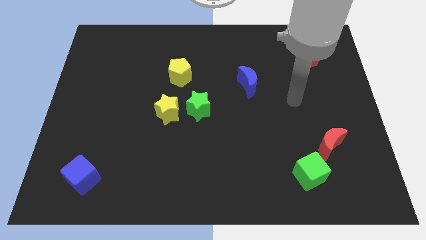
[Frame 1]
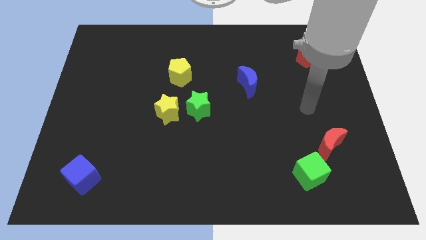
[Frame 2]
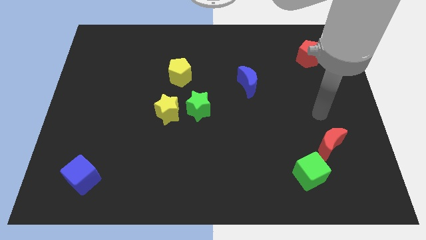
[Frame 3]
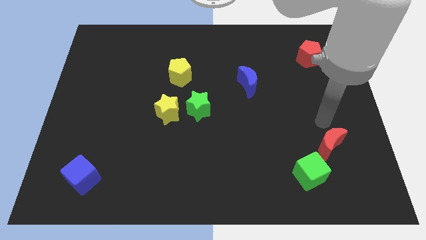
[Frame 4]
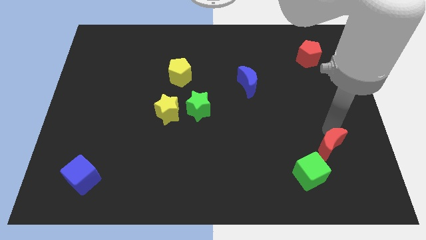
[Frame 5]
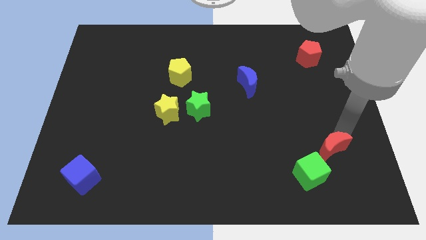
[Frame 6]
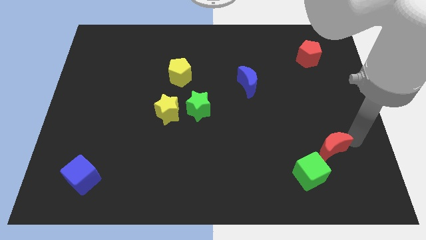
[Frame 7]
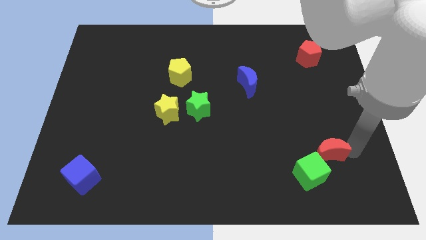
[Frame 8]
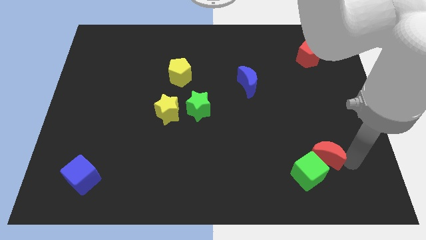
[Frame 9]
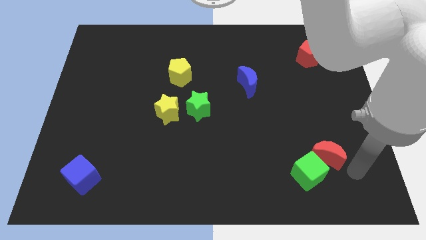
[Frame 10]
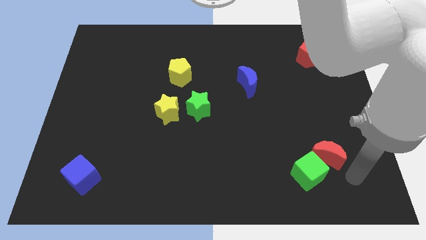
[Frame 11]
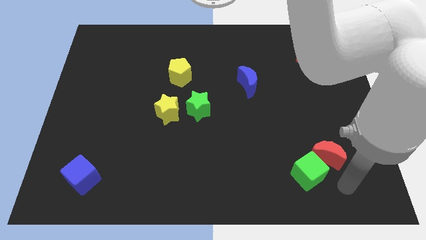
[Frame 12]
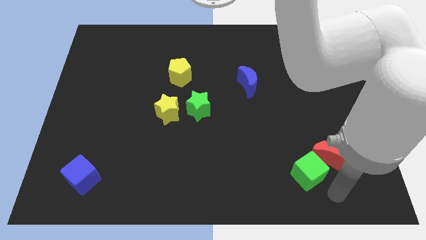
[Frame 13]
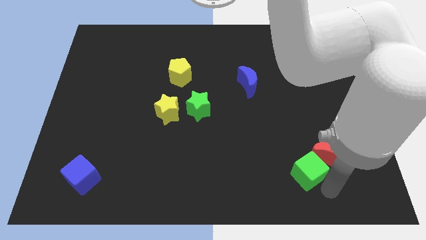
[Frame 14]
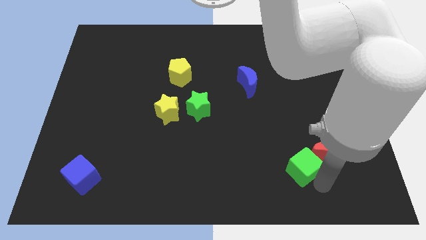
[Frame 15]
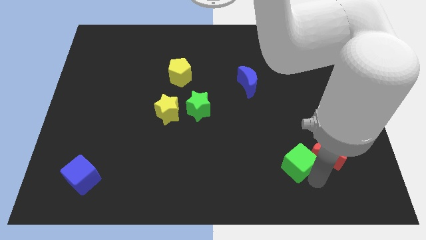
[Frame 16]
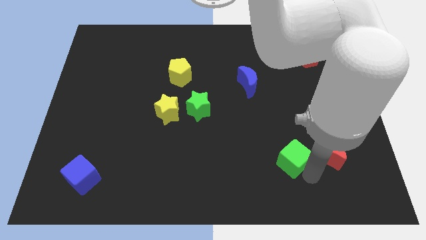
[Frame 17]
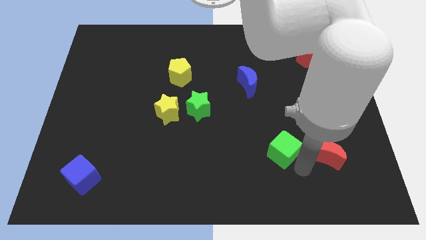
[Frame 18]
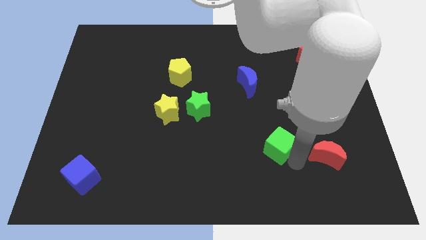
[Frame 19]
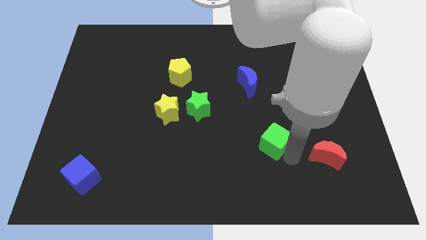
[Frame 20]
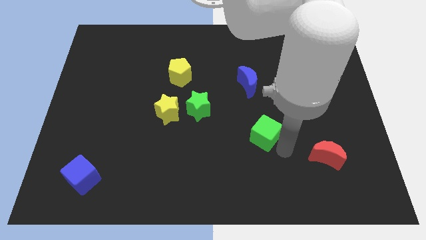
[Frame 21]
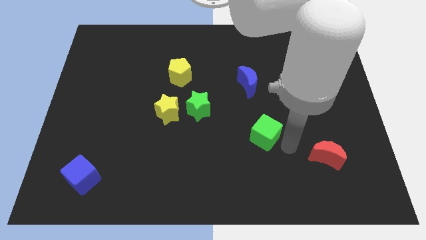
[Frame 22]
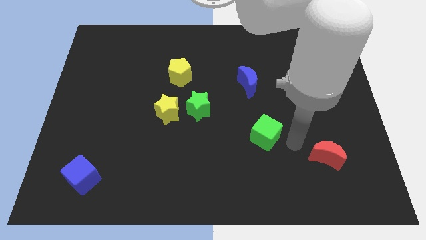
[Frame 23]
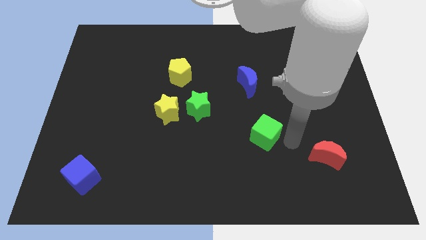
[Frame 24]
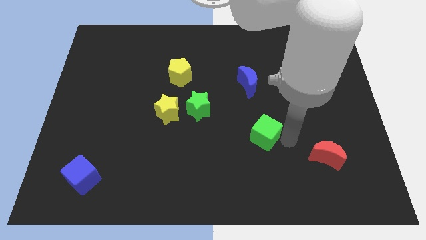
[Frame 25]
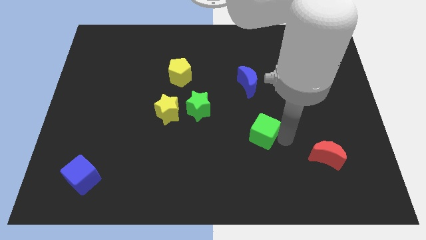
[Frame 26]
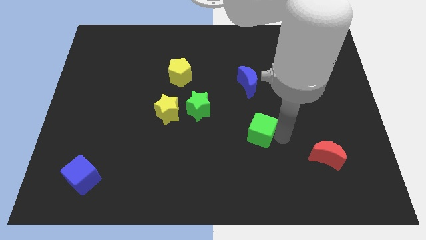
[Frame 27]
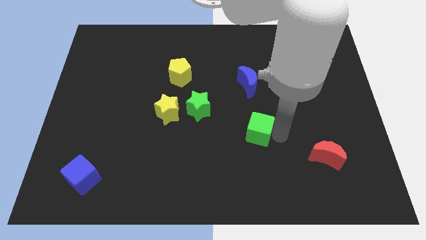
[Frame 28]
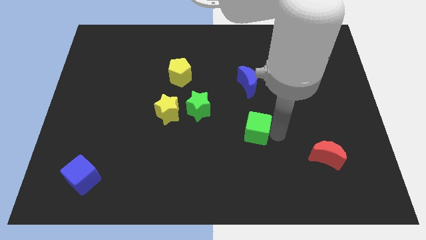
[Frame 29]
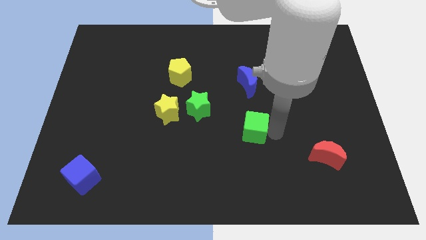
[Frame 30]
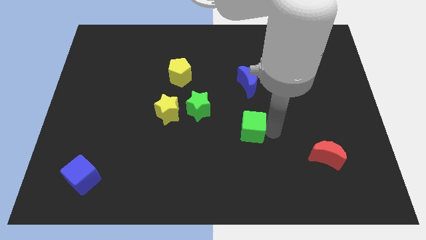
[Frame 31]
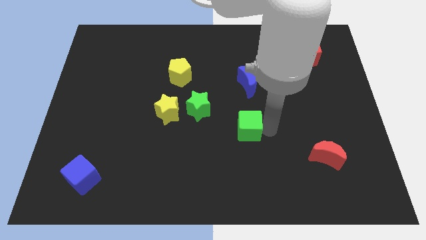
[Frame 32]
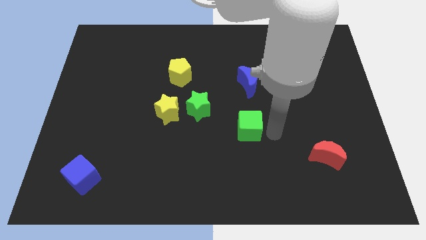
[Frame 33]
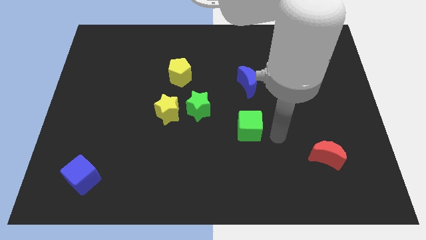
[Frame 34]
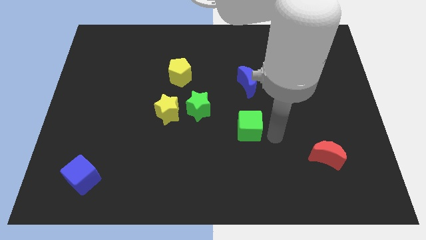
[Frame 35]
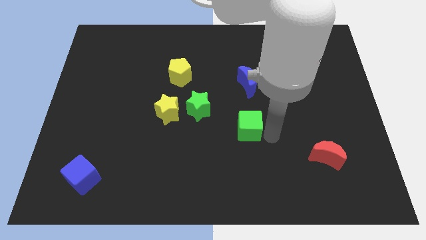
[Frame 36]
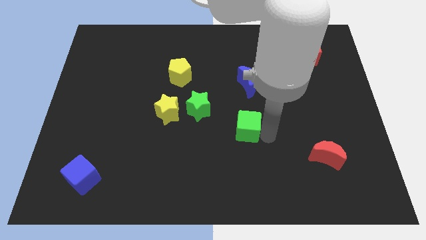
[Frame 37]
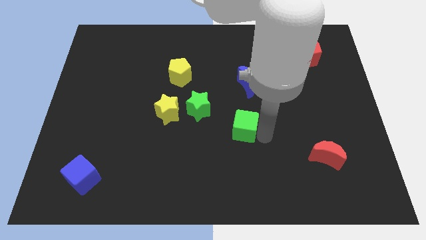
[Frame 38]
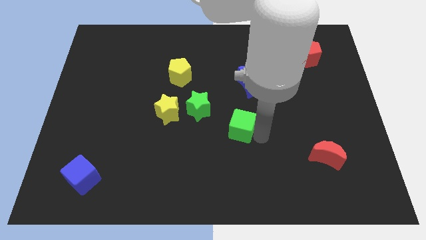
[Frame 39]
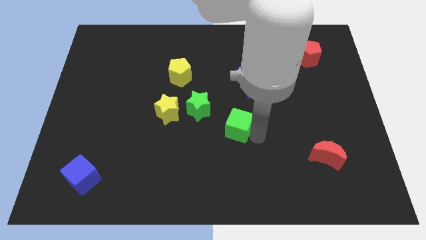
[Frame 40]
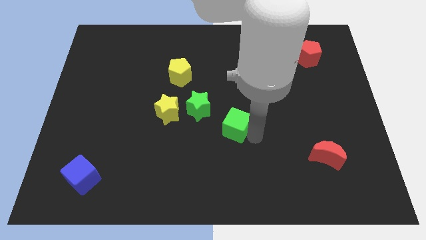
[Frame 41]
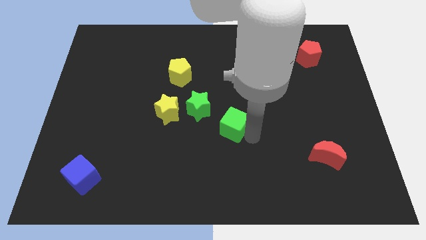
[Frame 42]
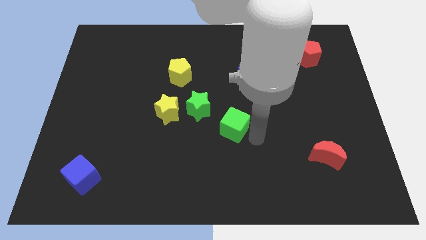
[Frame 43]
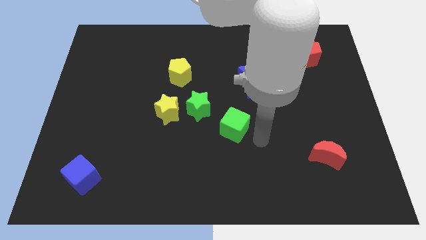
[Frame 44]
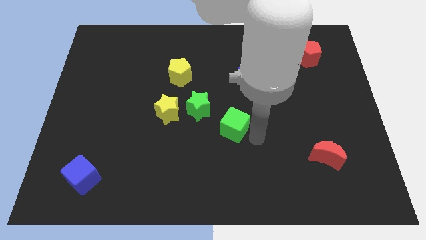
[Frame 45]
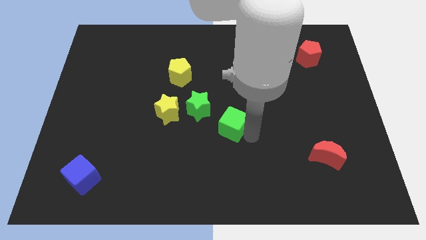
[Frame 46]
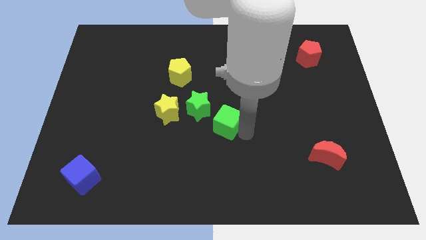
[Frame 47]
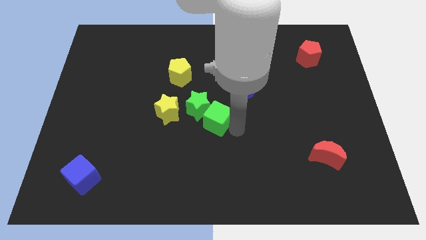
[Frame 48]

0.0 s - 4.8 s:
move the green cube next to the green star

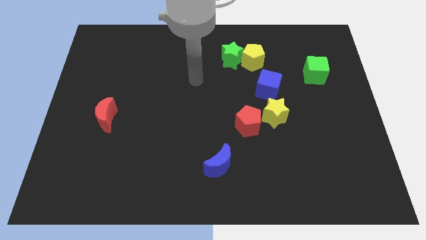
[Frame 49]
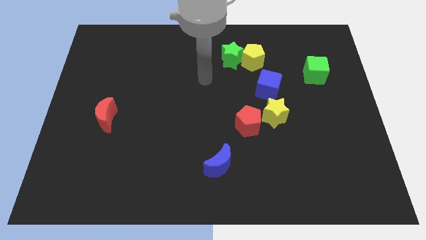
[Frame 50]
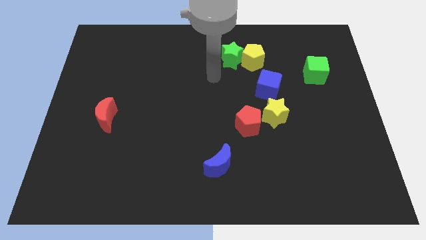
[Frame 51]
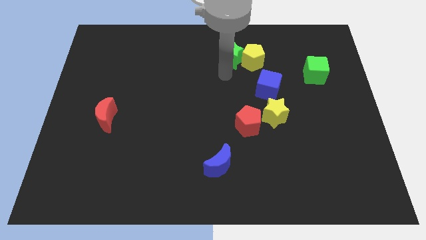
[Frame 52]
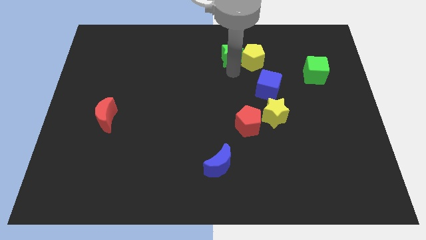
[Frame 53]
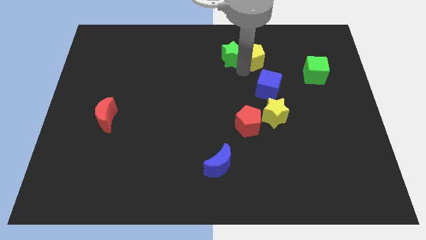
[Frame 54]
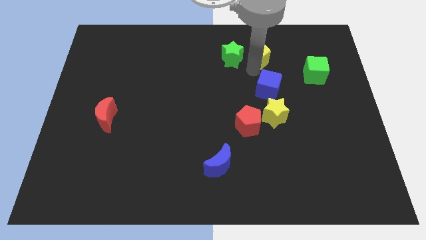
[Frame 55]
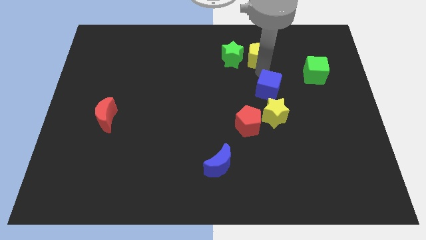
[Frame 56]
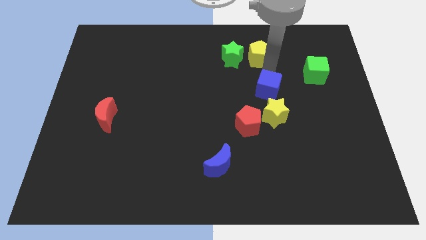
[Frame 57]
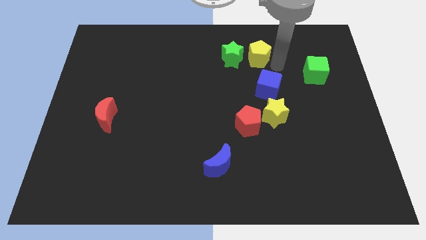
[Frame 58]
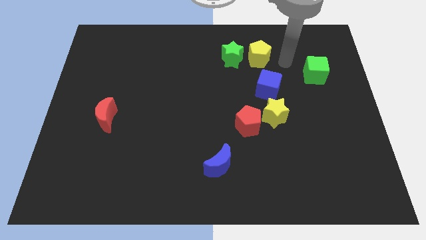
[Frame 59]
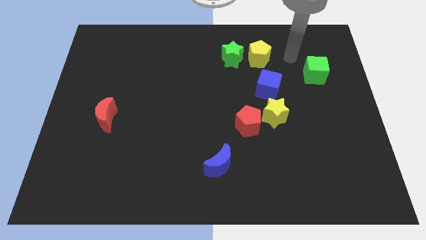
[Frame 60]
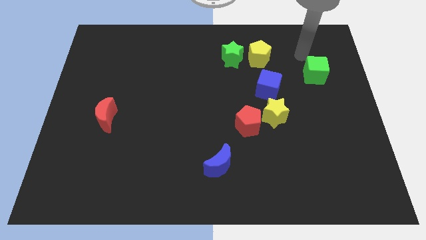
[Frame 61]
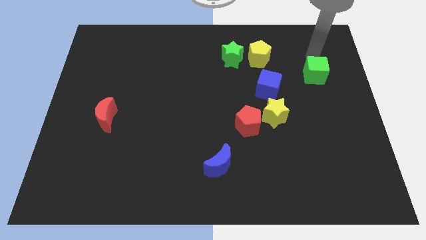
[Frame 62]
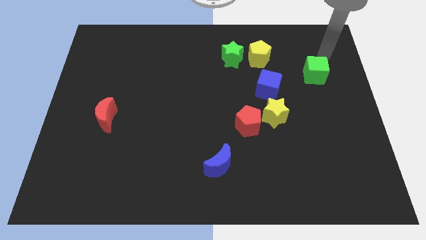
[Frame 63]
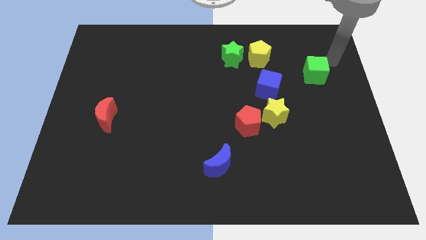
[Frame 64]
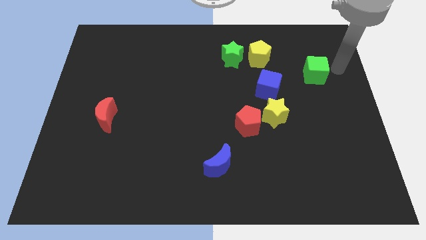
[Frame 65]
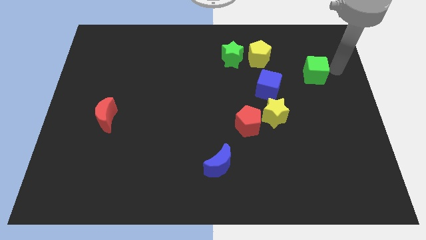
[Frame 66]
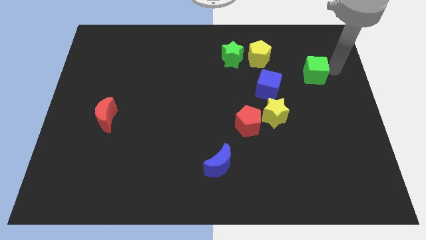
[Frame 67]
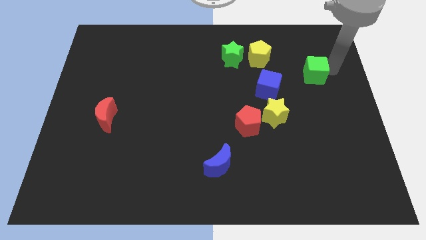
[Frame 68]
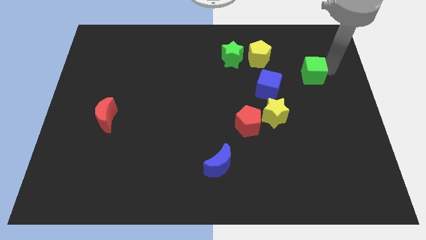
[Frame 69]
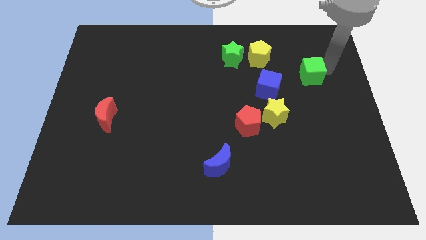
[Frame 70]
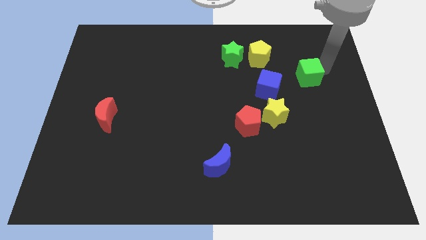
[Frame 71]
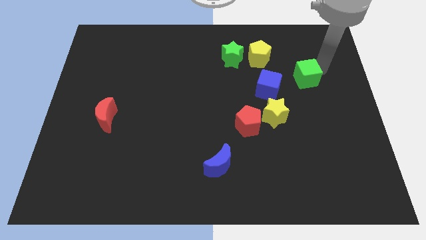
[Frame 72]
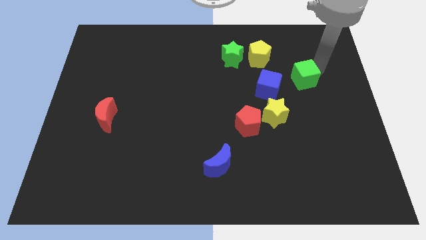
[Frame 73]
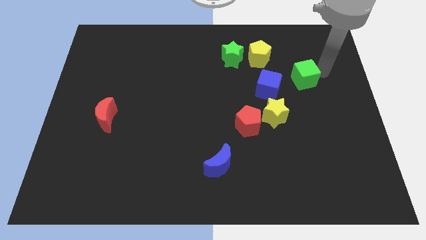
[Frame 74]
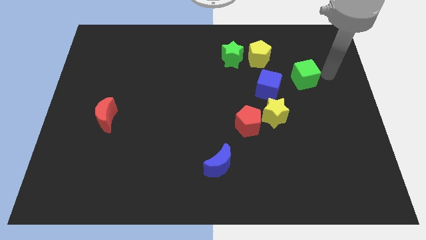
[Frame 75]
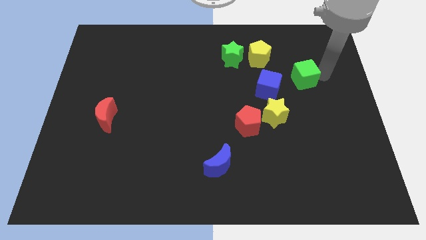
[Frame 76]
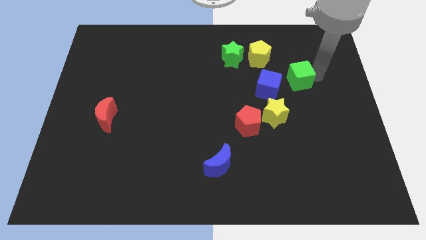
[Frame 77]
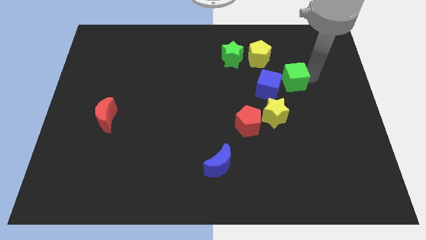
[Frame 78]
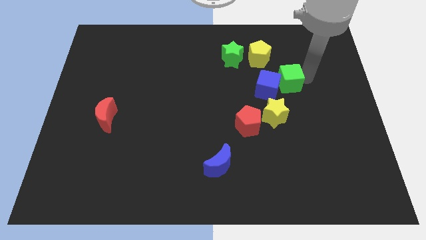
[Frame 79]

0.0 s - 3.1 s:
put the green cube next to the blue cube

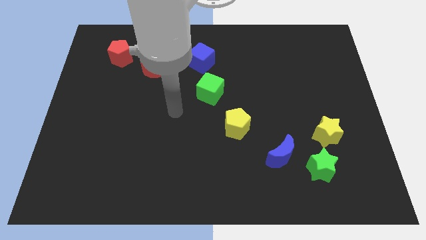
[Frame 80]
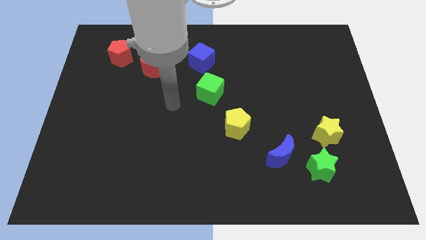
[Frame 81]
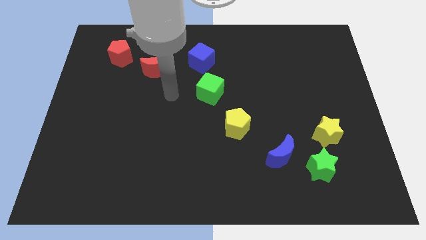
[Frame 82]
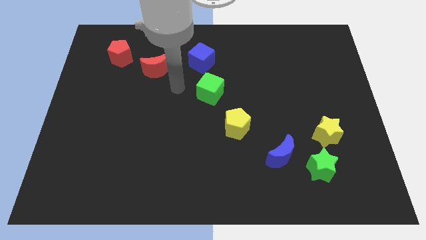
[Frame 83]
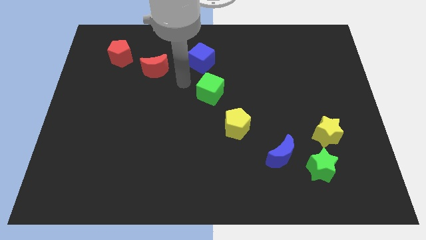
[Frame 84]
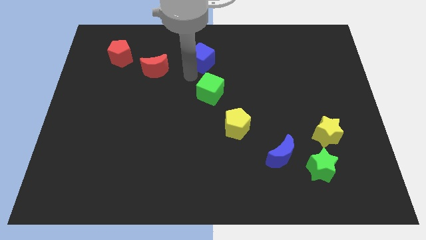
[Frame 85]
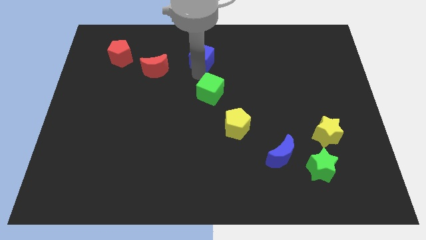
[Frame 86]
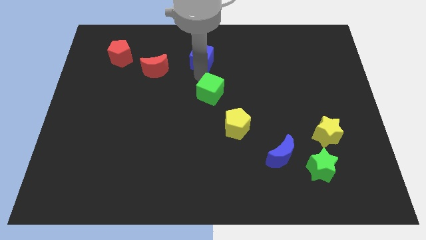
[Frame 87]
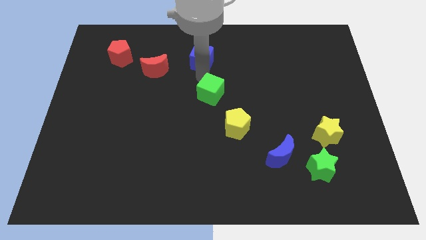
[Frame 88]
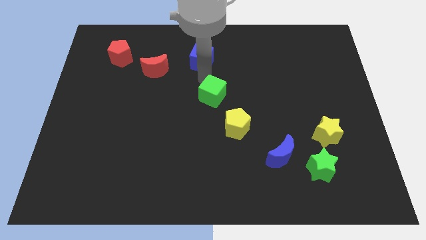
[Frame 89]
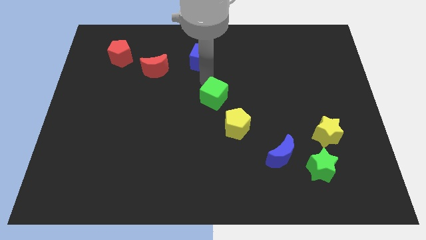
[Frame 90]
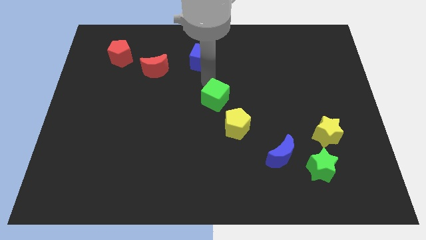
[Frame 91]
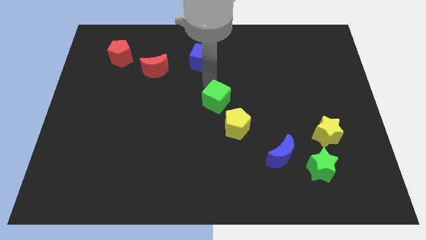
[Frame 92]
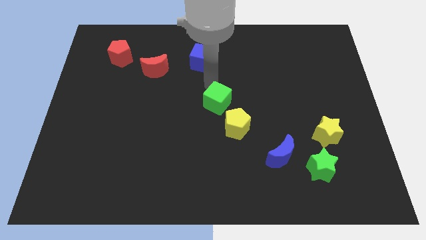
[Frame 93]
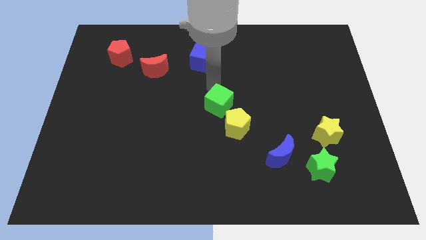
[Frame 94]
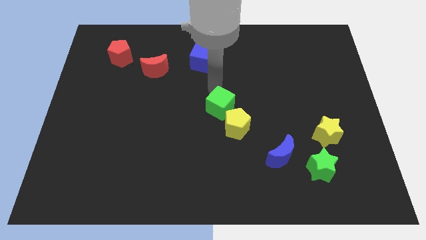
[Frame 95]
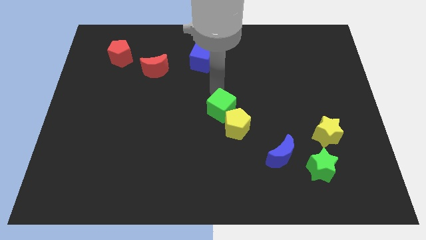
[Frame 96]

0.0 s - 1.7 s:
move the green cube towards the yellow pentagon
